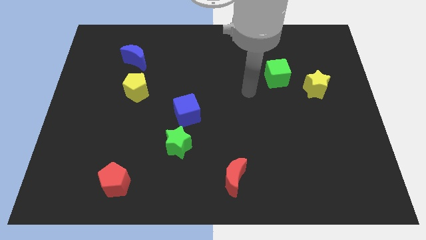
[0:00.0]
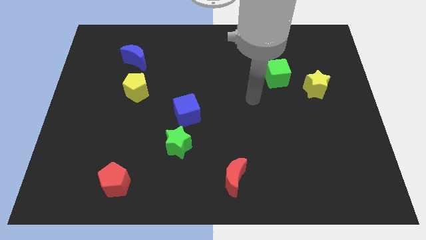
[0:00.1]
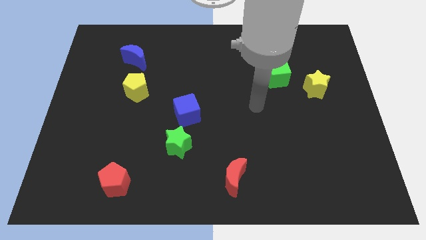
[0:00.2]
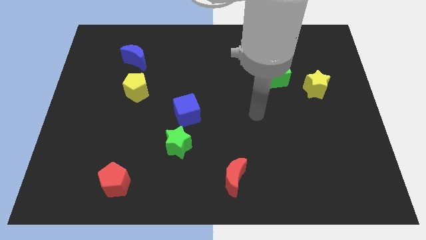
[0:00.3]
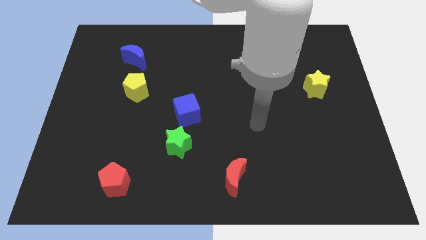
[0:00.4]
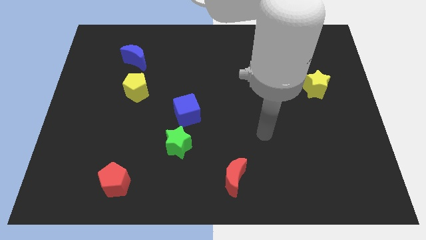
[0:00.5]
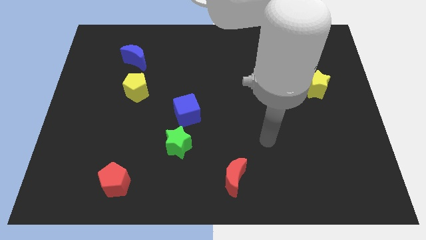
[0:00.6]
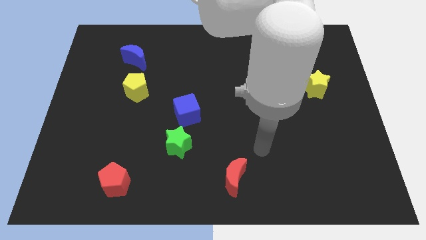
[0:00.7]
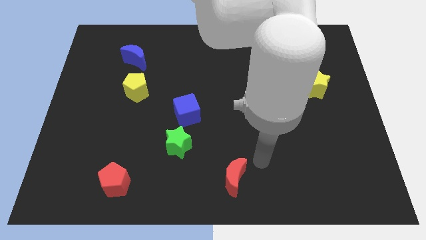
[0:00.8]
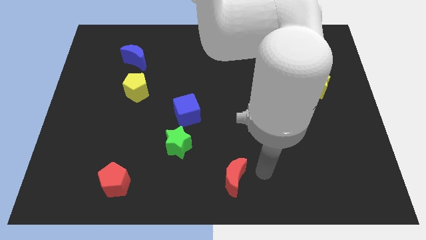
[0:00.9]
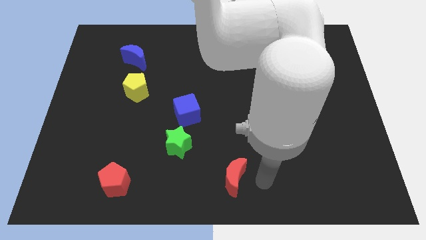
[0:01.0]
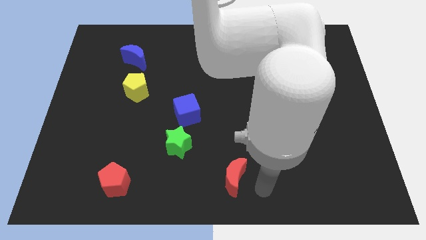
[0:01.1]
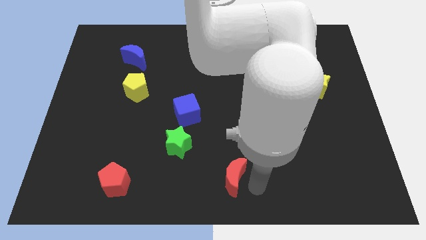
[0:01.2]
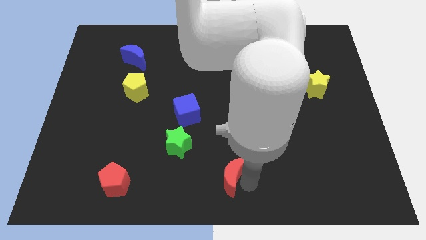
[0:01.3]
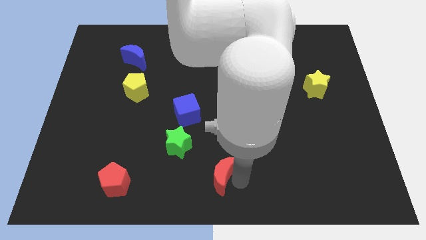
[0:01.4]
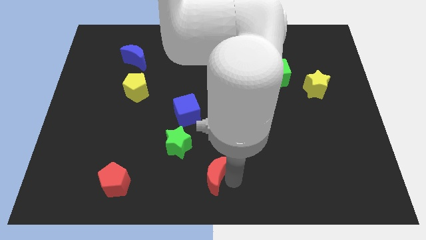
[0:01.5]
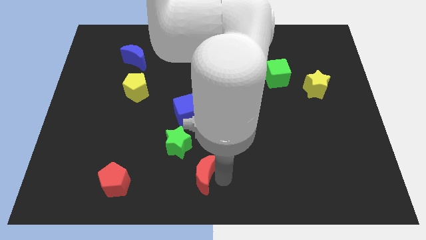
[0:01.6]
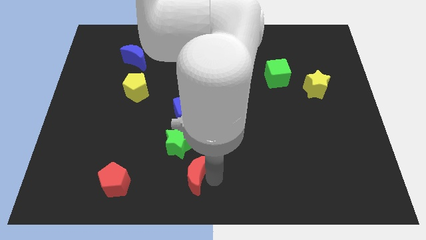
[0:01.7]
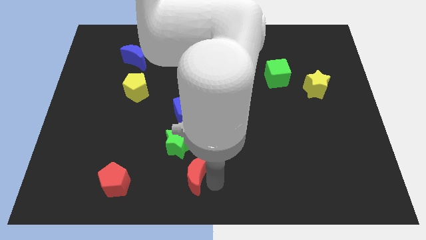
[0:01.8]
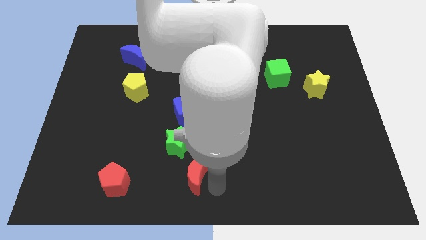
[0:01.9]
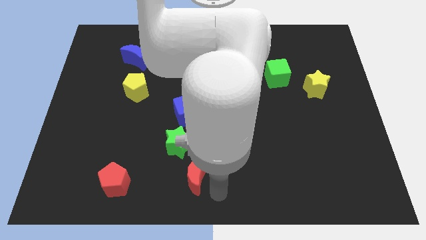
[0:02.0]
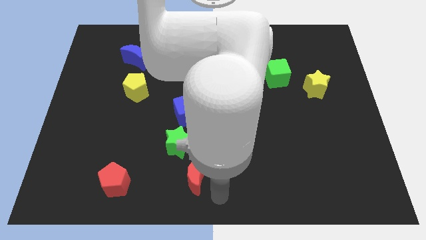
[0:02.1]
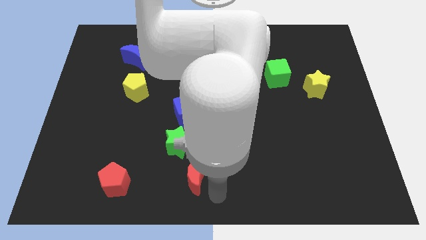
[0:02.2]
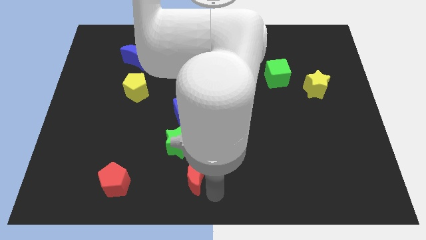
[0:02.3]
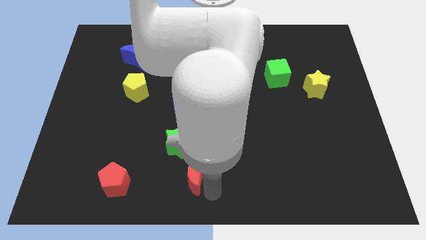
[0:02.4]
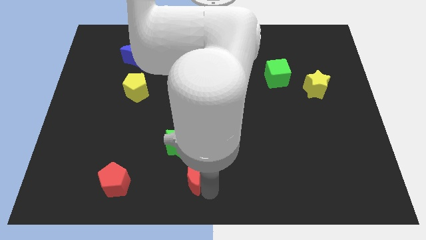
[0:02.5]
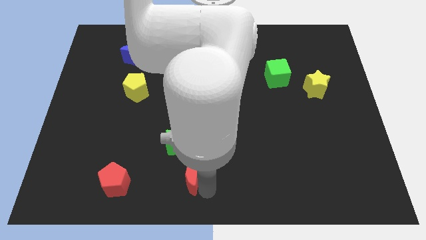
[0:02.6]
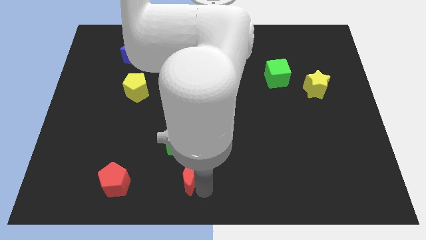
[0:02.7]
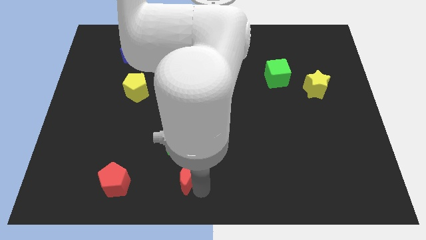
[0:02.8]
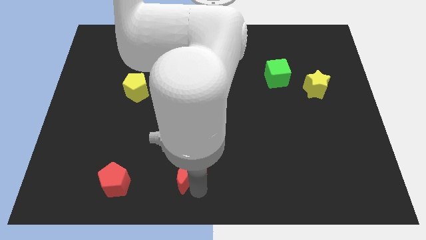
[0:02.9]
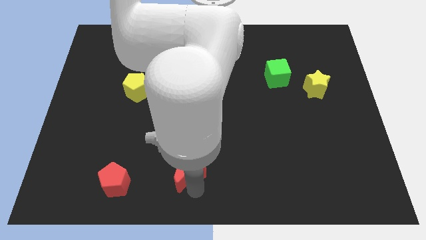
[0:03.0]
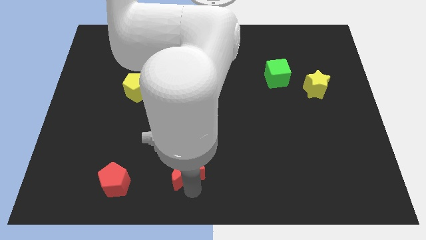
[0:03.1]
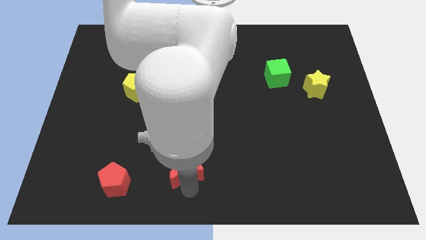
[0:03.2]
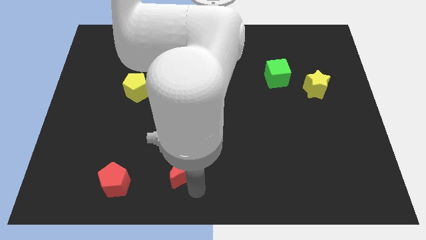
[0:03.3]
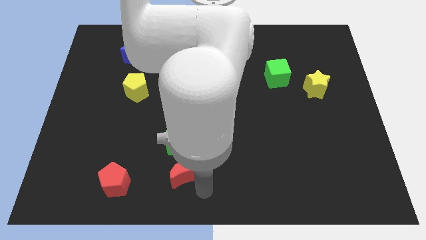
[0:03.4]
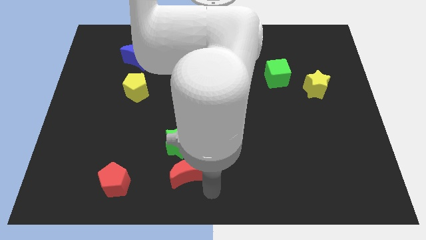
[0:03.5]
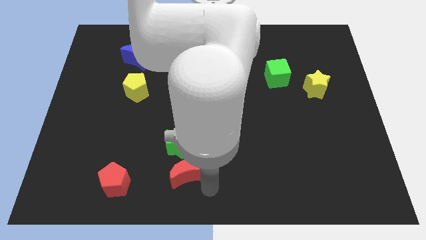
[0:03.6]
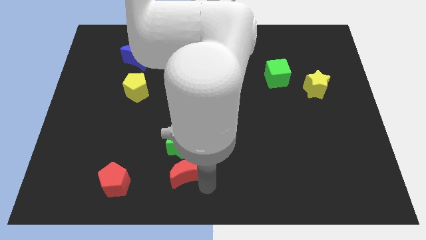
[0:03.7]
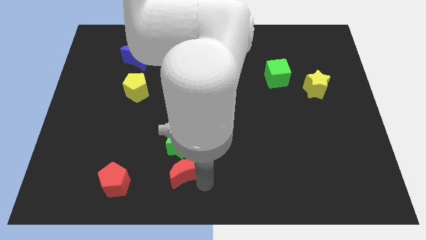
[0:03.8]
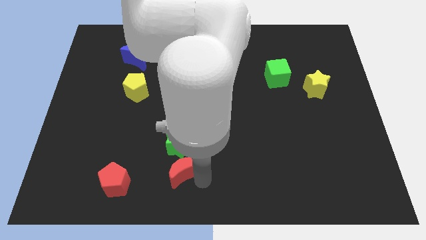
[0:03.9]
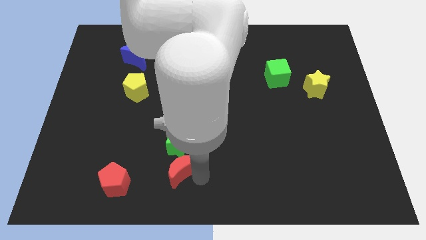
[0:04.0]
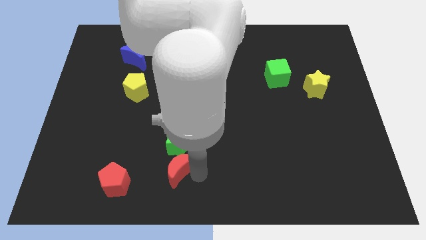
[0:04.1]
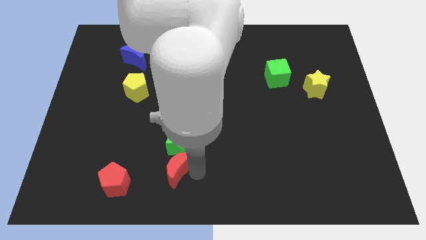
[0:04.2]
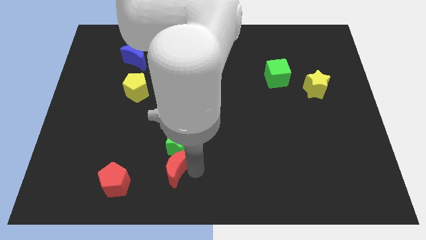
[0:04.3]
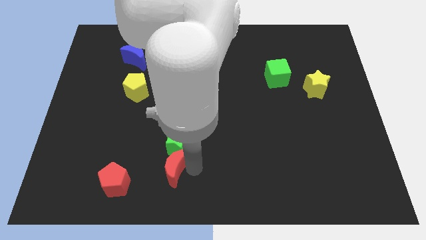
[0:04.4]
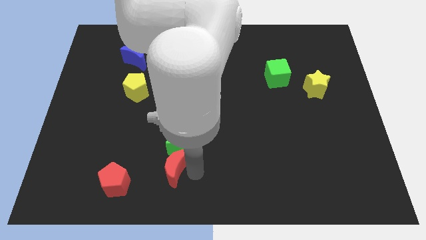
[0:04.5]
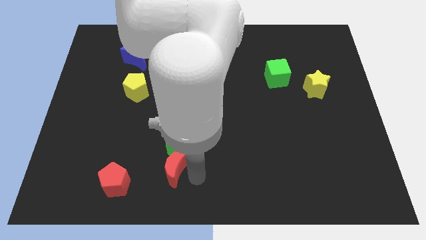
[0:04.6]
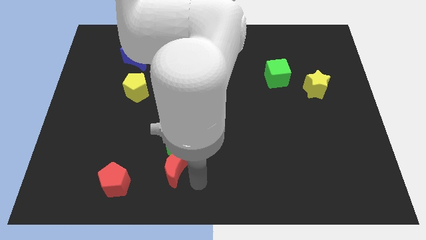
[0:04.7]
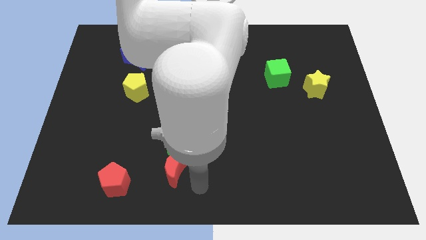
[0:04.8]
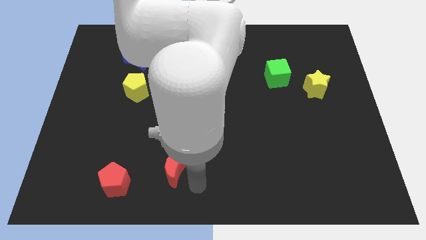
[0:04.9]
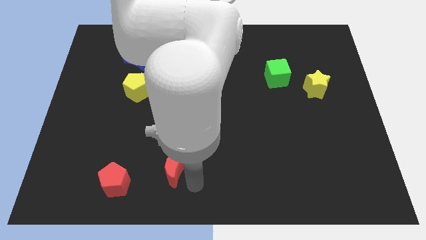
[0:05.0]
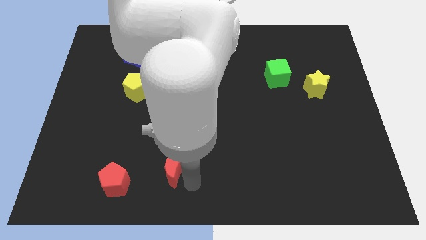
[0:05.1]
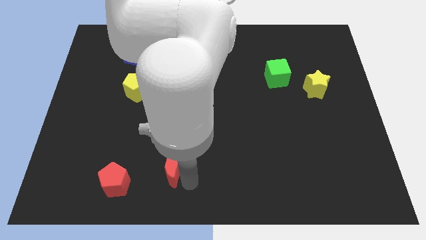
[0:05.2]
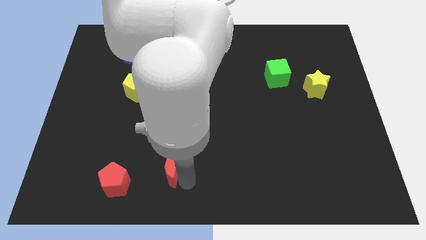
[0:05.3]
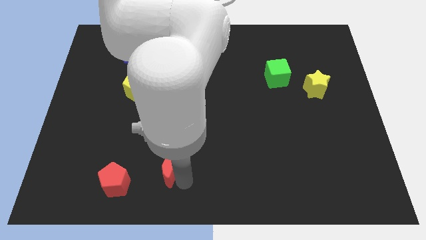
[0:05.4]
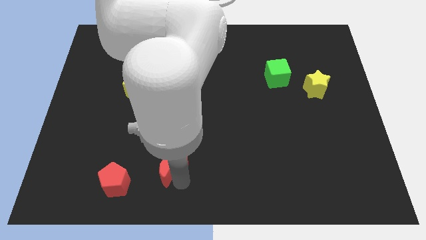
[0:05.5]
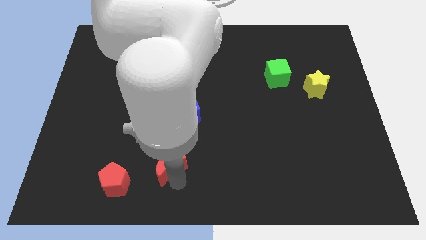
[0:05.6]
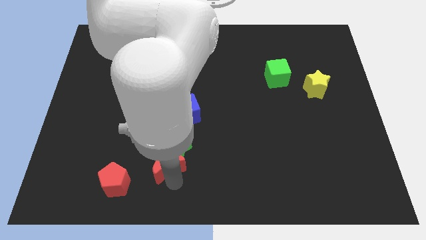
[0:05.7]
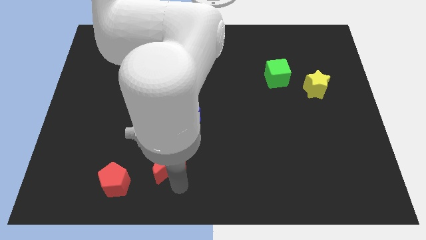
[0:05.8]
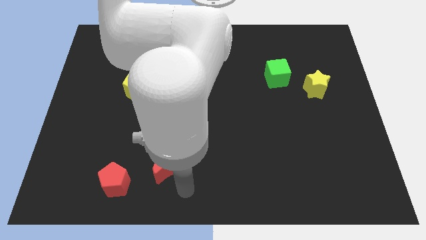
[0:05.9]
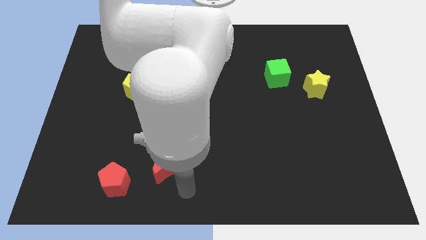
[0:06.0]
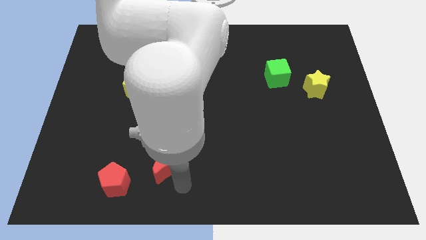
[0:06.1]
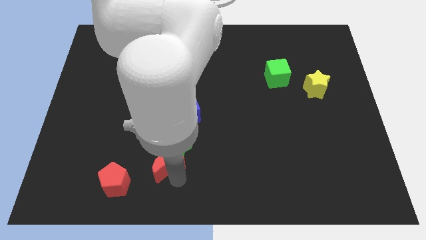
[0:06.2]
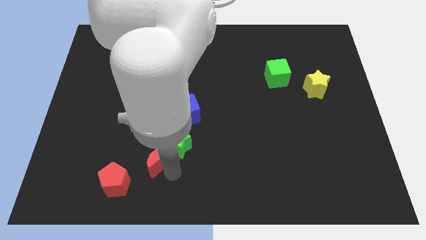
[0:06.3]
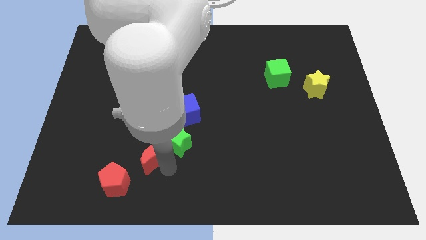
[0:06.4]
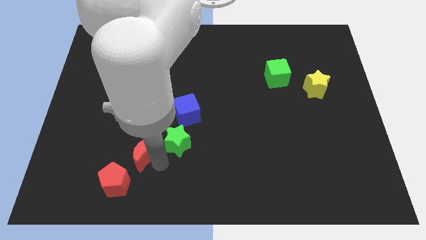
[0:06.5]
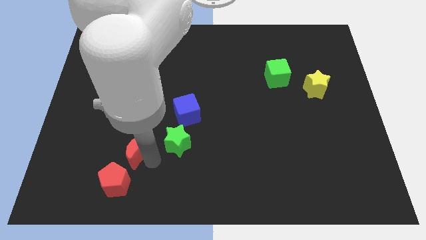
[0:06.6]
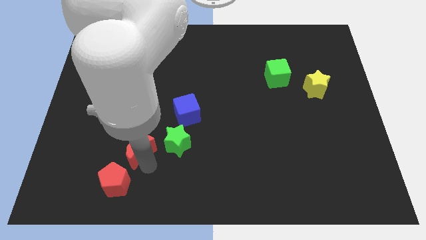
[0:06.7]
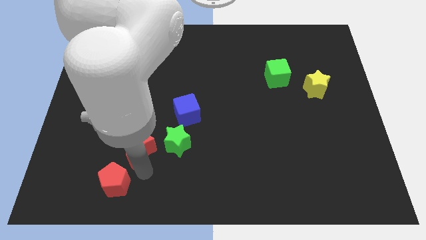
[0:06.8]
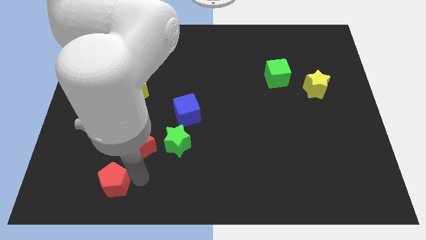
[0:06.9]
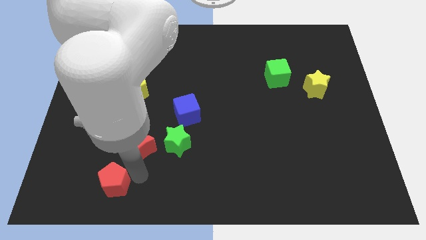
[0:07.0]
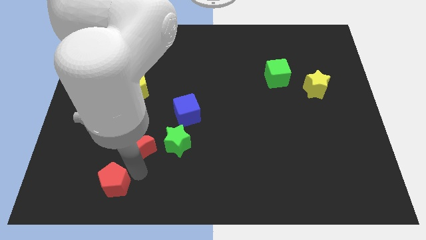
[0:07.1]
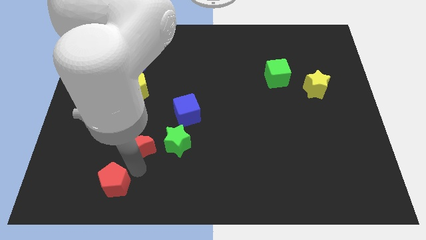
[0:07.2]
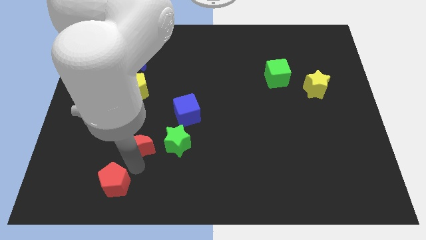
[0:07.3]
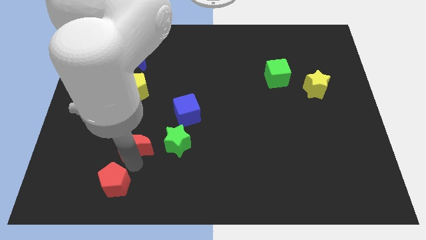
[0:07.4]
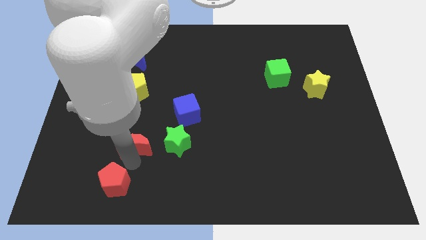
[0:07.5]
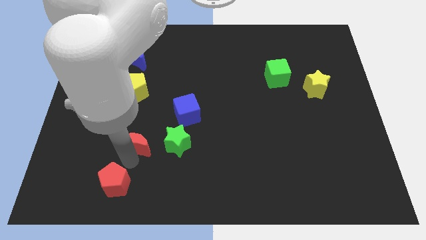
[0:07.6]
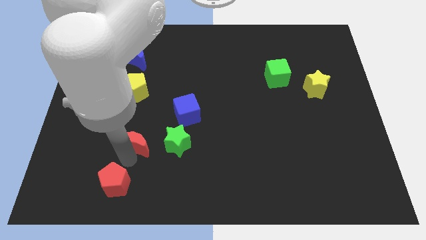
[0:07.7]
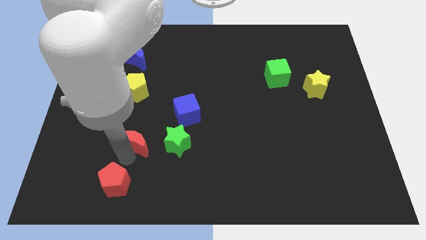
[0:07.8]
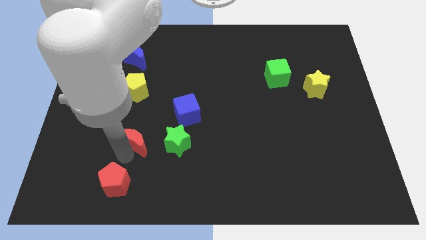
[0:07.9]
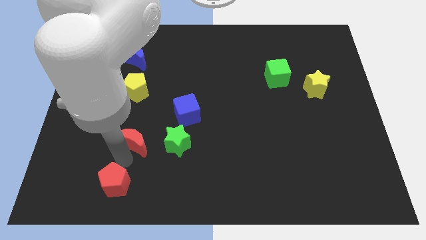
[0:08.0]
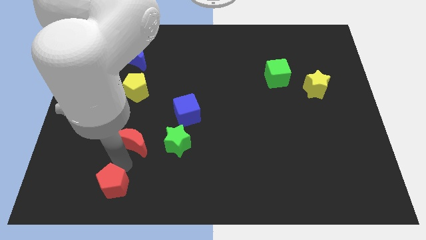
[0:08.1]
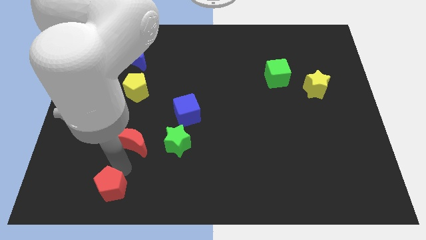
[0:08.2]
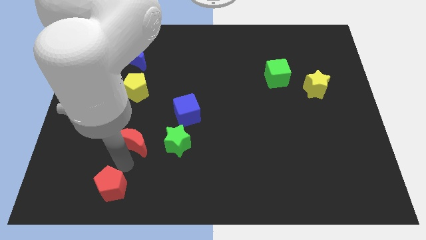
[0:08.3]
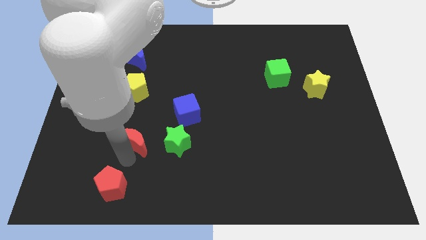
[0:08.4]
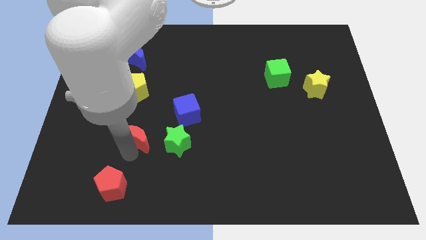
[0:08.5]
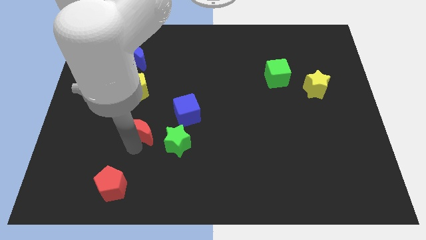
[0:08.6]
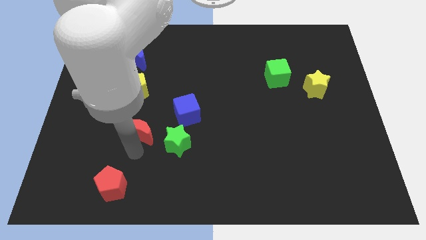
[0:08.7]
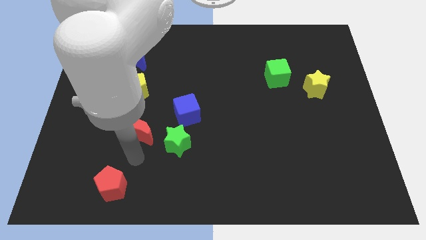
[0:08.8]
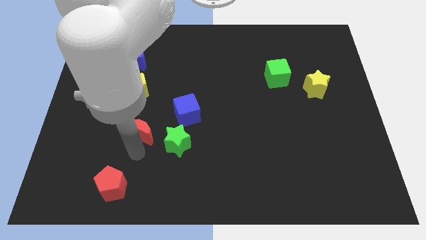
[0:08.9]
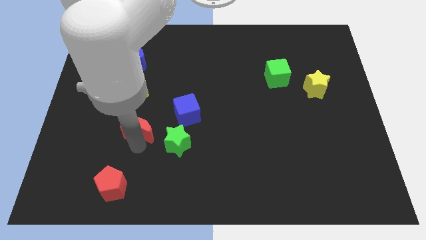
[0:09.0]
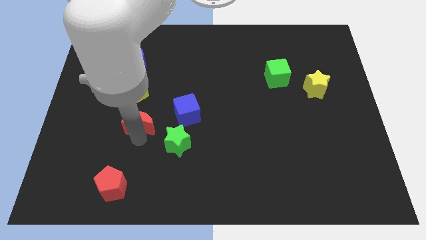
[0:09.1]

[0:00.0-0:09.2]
slide the red moon just left of the blue cube
